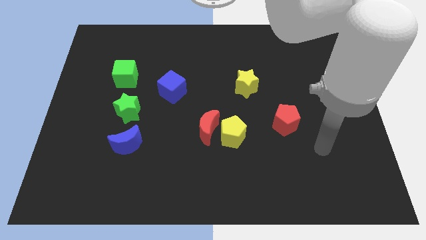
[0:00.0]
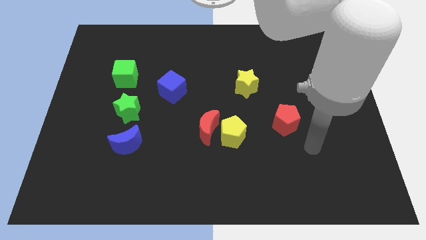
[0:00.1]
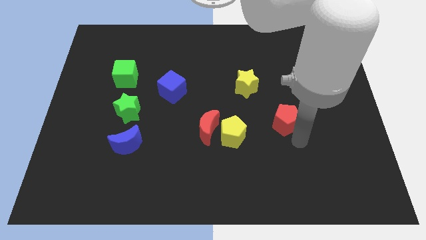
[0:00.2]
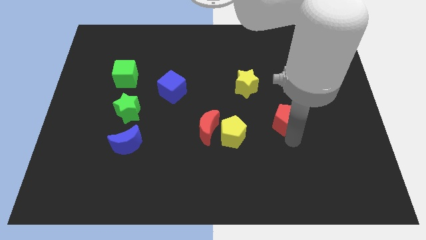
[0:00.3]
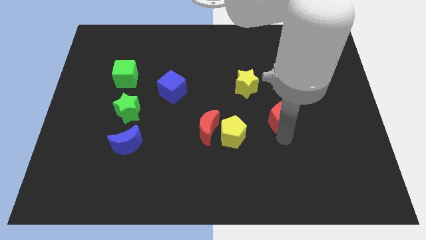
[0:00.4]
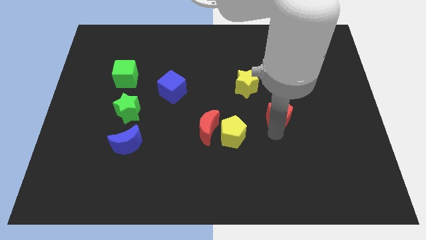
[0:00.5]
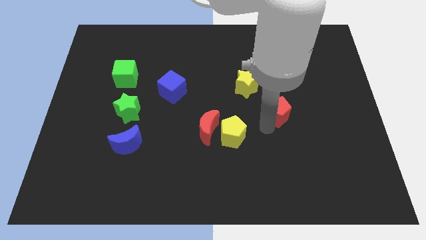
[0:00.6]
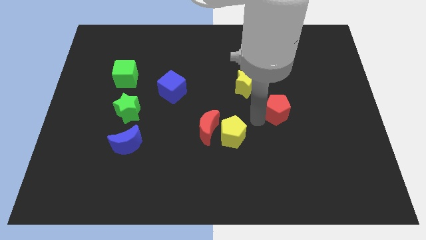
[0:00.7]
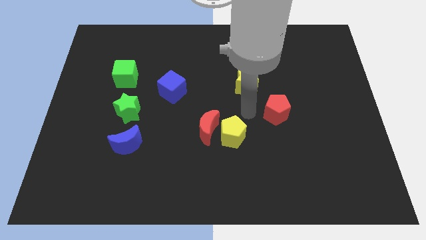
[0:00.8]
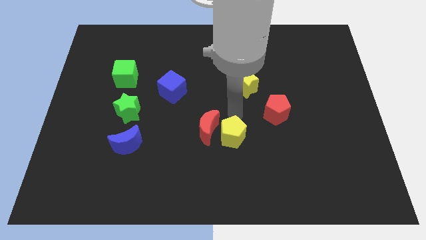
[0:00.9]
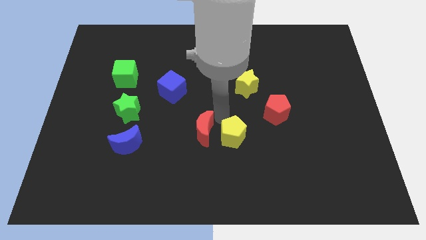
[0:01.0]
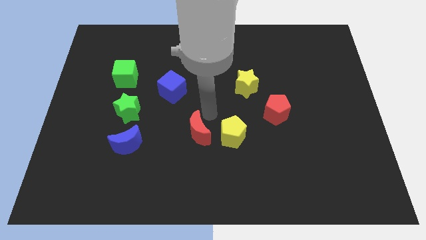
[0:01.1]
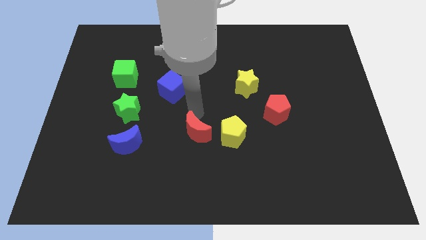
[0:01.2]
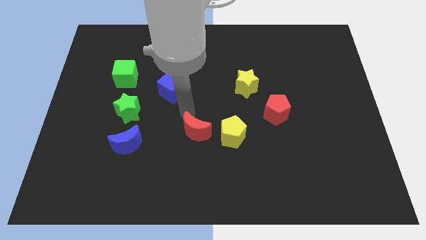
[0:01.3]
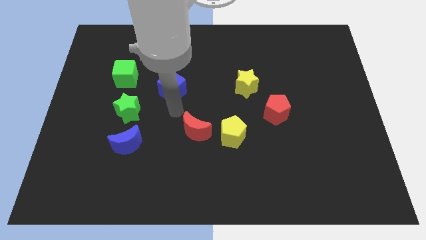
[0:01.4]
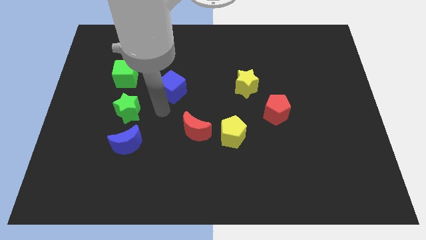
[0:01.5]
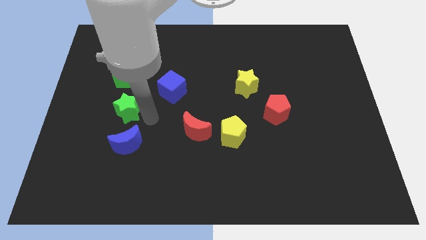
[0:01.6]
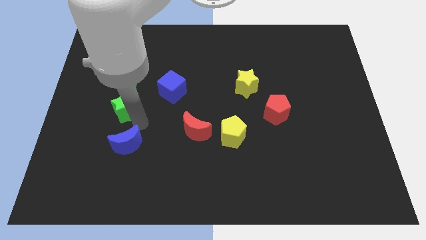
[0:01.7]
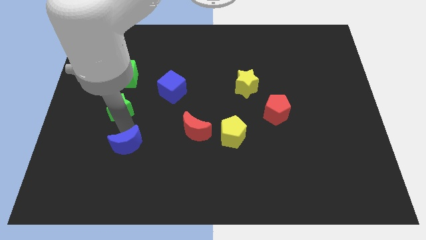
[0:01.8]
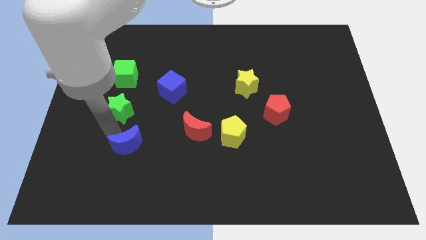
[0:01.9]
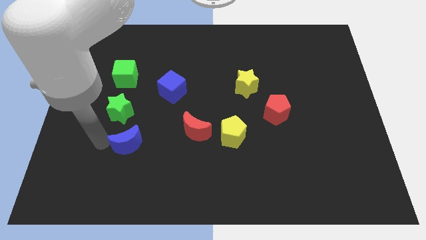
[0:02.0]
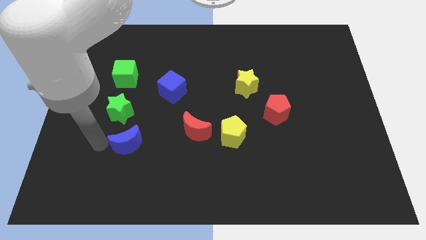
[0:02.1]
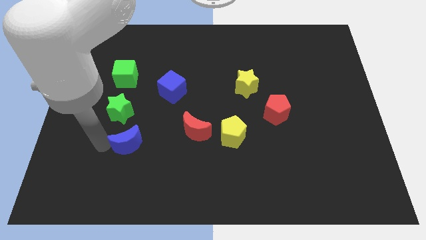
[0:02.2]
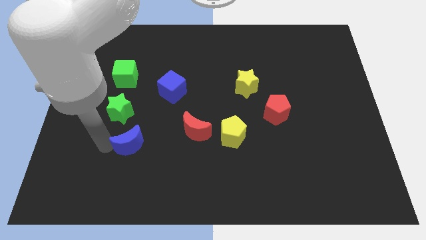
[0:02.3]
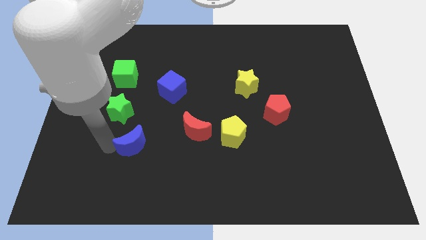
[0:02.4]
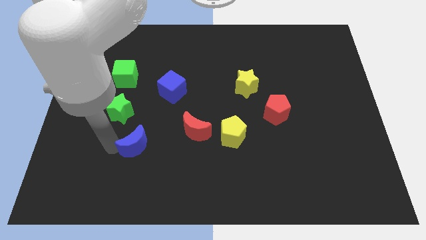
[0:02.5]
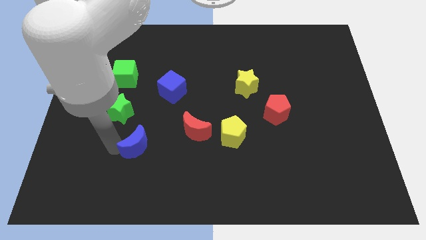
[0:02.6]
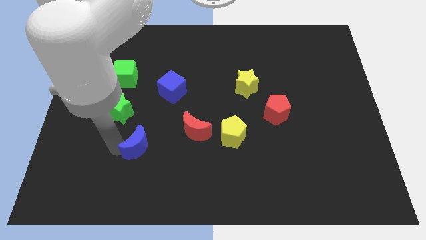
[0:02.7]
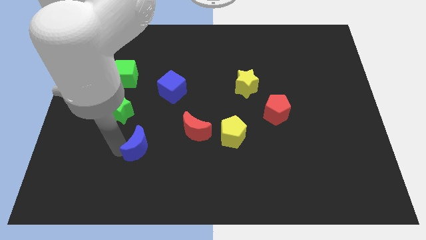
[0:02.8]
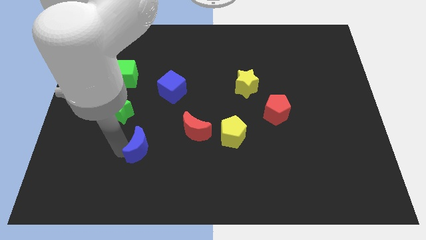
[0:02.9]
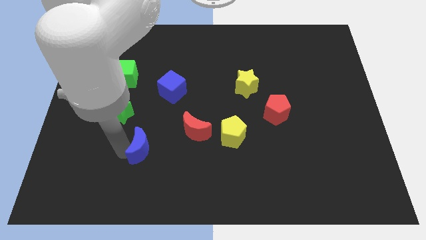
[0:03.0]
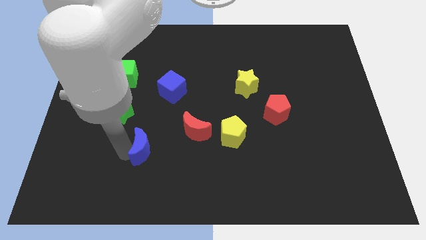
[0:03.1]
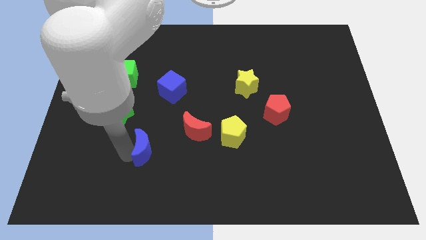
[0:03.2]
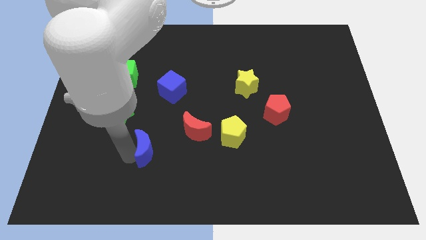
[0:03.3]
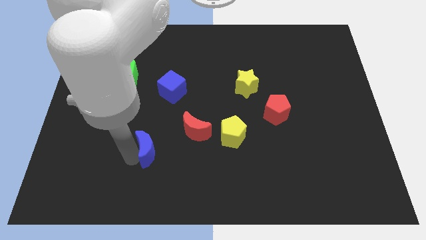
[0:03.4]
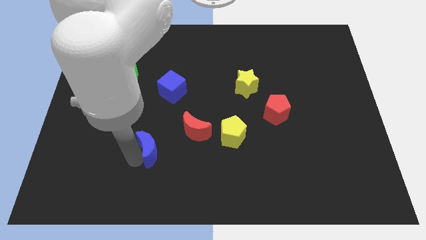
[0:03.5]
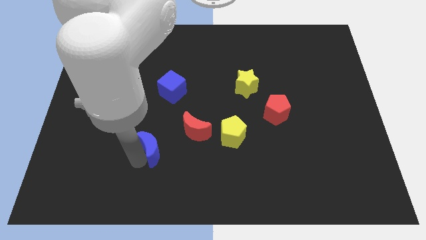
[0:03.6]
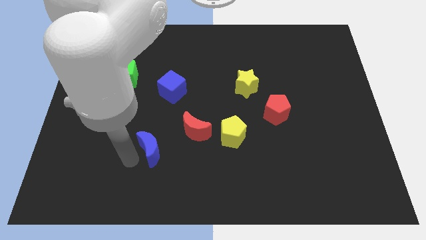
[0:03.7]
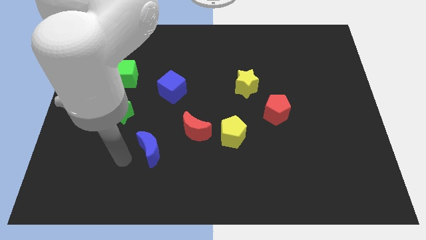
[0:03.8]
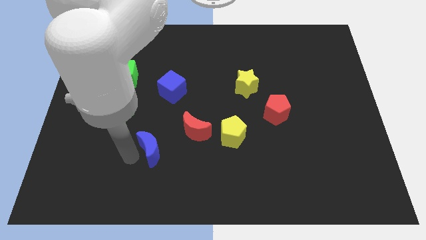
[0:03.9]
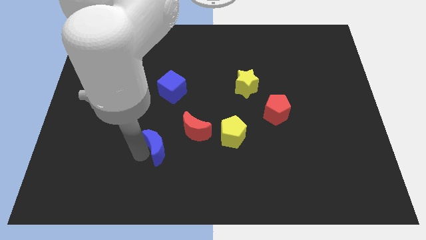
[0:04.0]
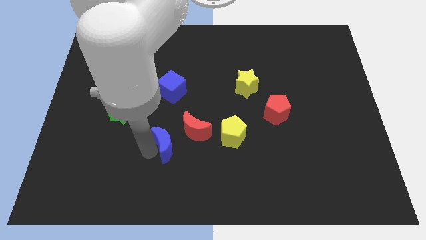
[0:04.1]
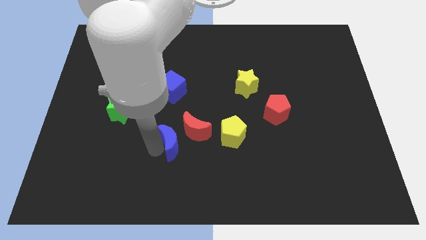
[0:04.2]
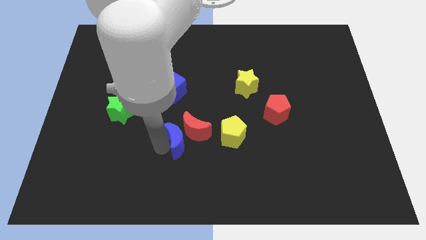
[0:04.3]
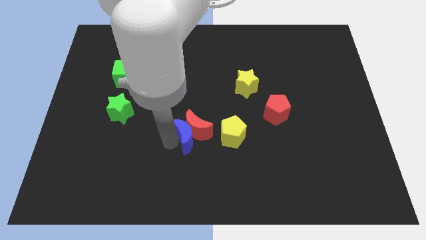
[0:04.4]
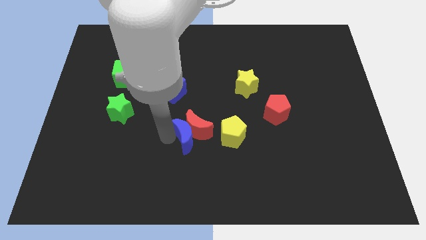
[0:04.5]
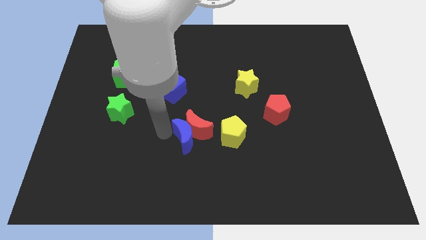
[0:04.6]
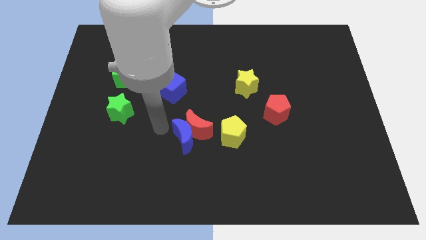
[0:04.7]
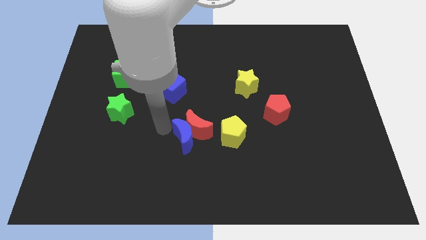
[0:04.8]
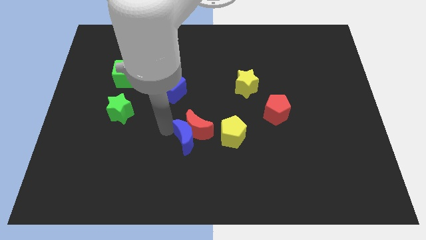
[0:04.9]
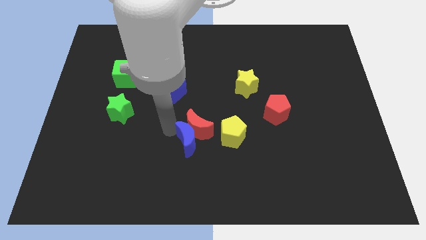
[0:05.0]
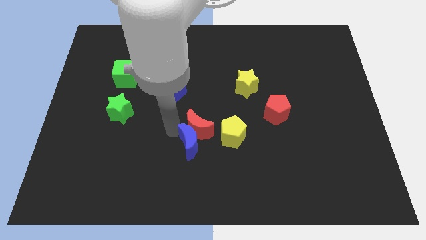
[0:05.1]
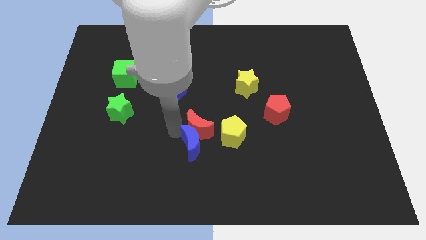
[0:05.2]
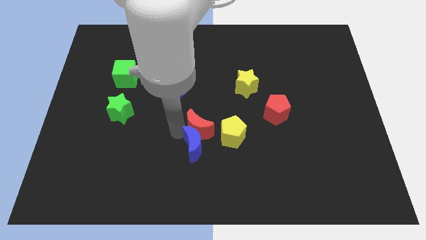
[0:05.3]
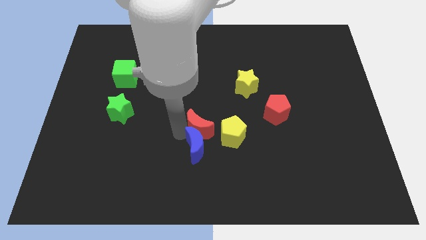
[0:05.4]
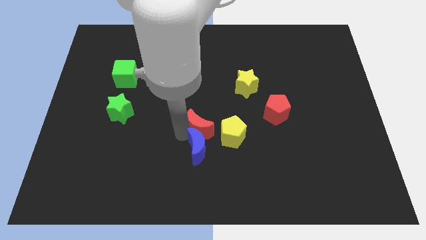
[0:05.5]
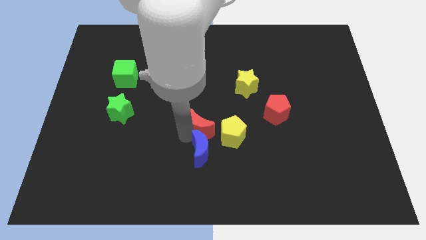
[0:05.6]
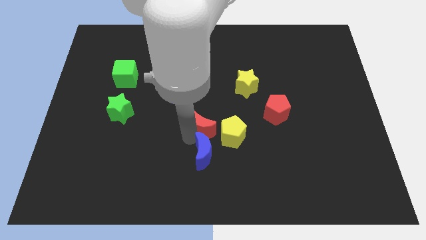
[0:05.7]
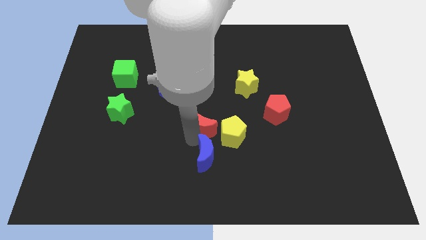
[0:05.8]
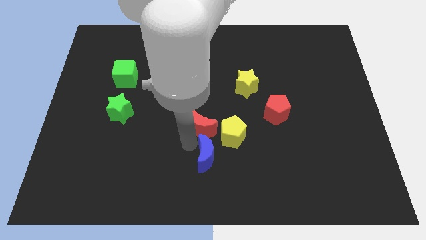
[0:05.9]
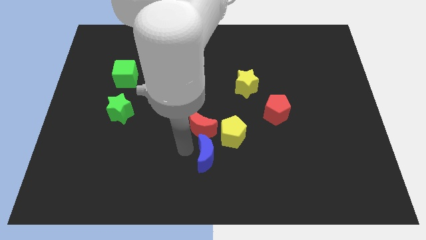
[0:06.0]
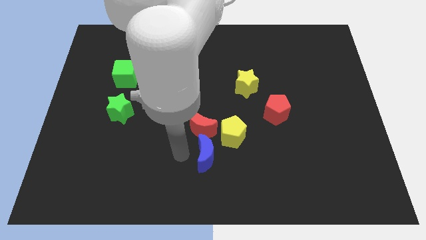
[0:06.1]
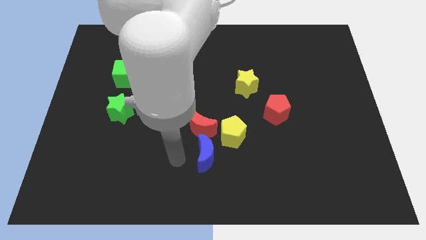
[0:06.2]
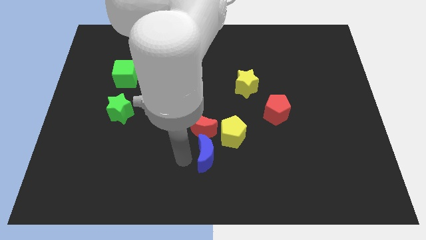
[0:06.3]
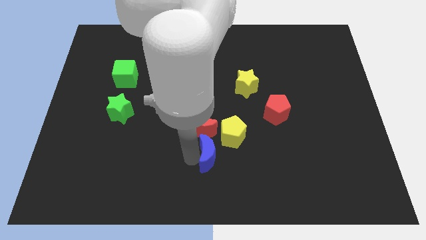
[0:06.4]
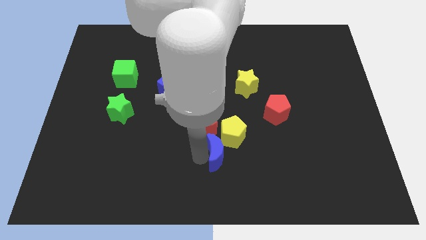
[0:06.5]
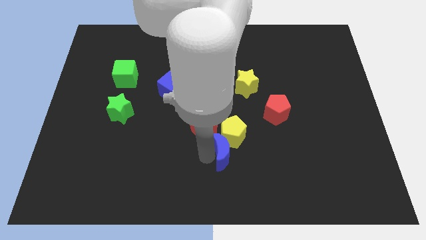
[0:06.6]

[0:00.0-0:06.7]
move the blue moon right

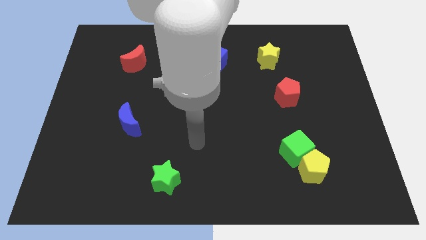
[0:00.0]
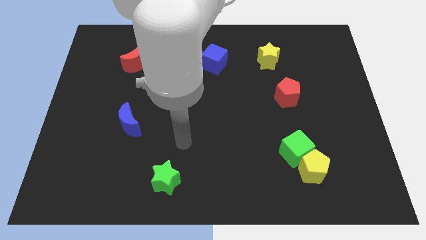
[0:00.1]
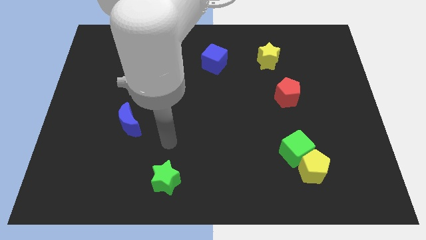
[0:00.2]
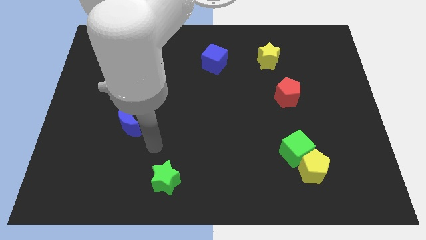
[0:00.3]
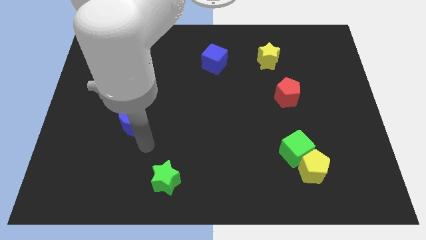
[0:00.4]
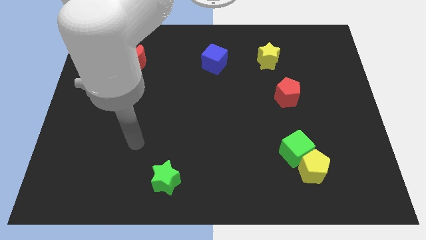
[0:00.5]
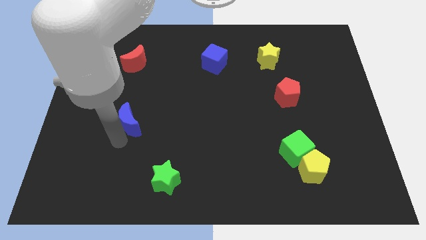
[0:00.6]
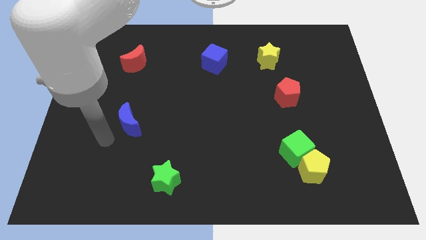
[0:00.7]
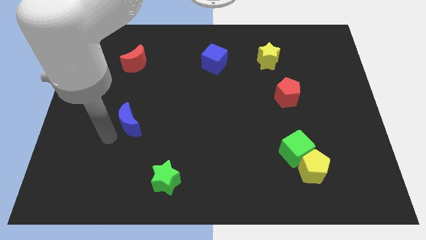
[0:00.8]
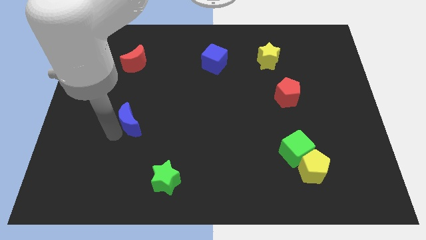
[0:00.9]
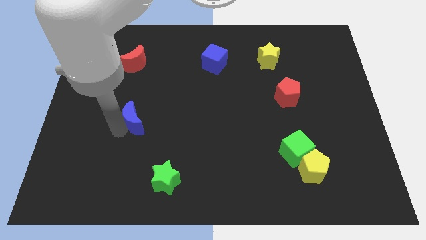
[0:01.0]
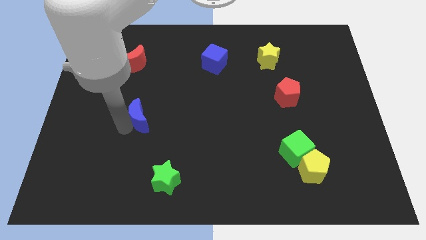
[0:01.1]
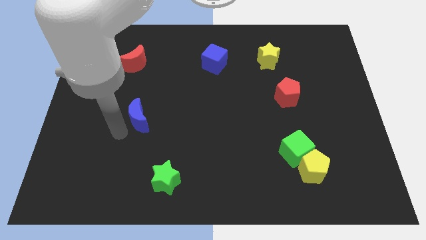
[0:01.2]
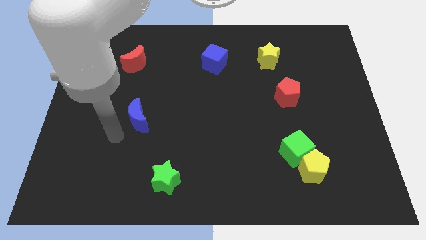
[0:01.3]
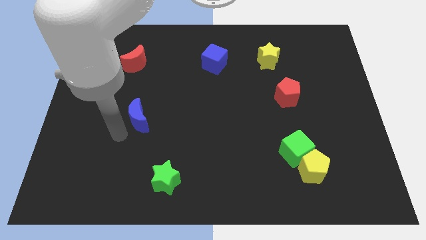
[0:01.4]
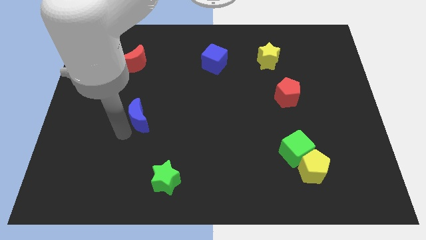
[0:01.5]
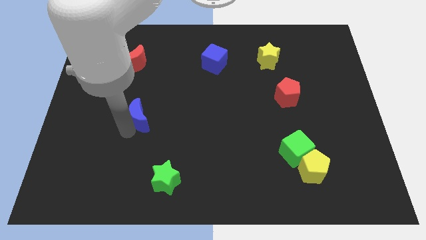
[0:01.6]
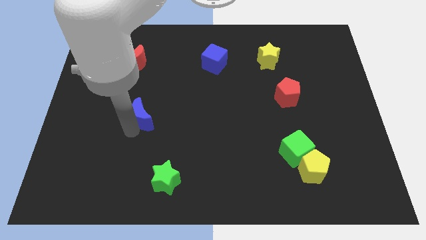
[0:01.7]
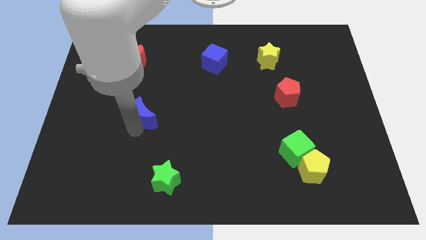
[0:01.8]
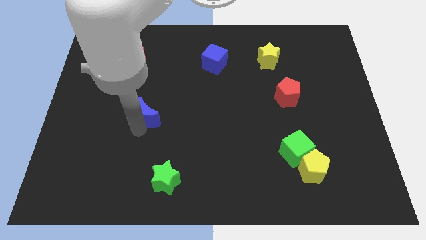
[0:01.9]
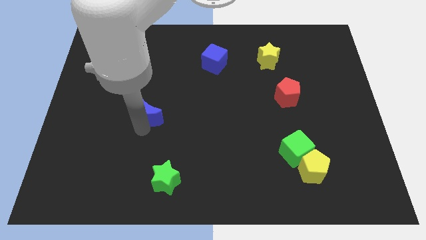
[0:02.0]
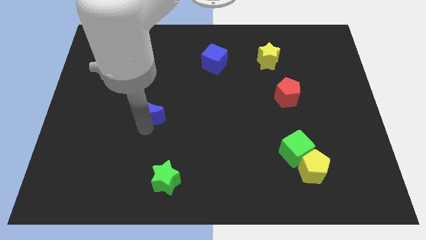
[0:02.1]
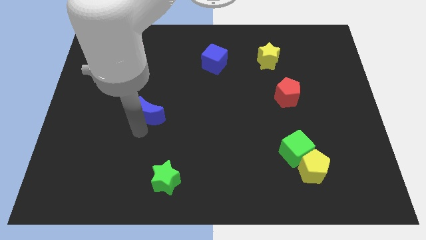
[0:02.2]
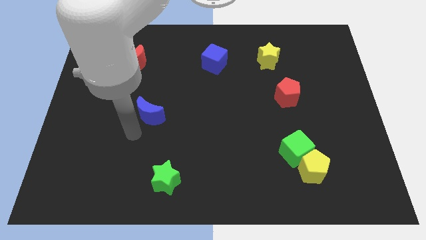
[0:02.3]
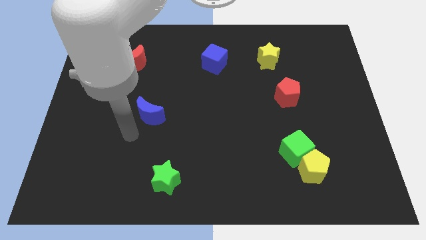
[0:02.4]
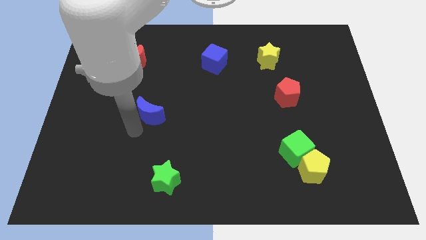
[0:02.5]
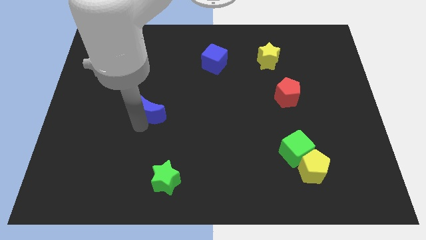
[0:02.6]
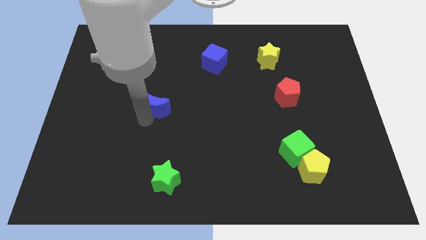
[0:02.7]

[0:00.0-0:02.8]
move the blue moon upwards and to the right diagonally a bit
